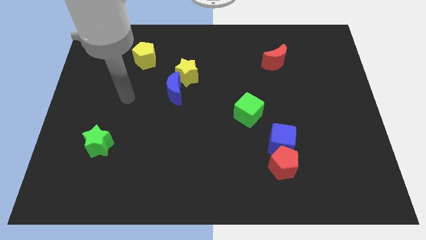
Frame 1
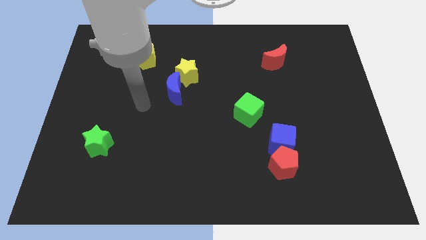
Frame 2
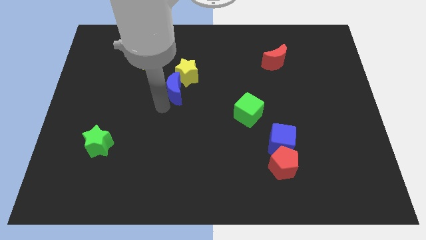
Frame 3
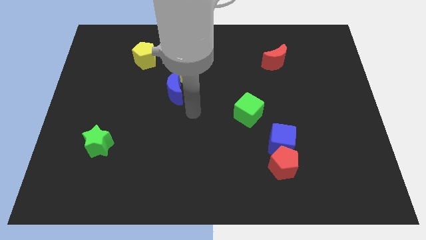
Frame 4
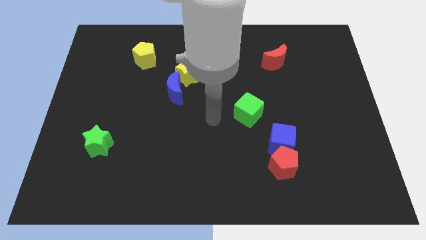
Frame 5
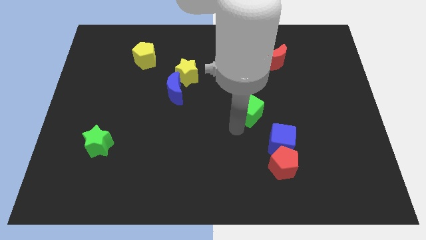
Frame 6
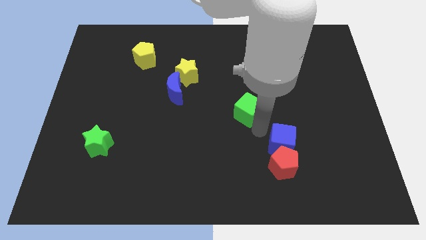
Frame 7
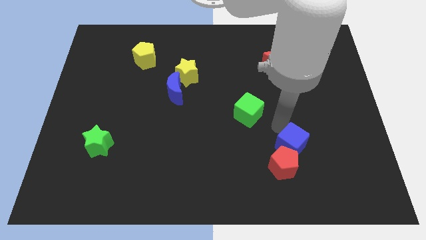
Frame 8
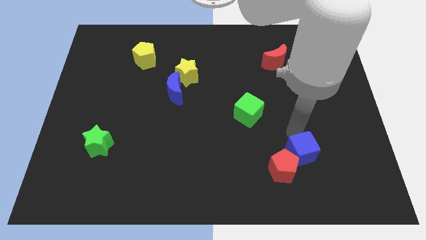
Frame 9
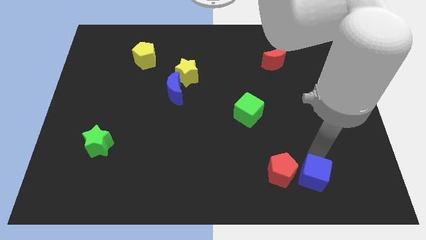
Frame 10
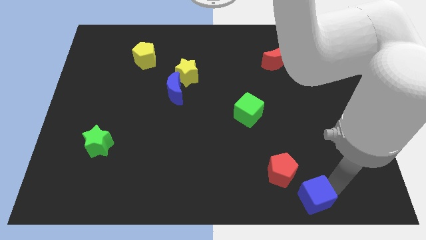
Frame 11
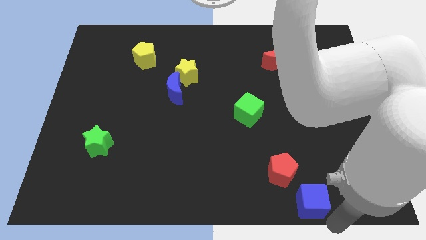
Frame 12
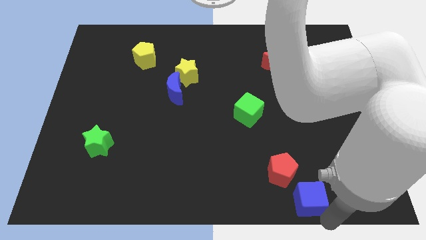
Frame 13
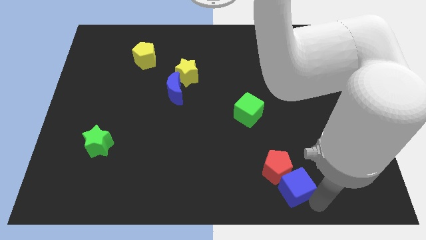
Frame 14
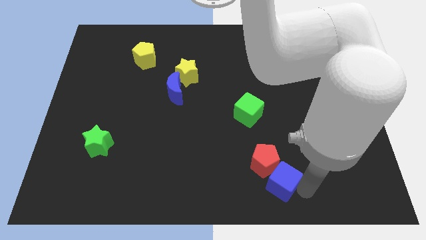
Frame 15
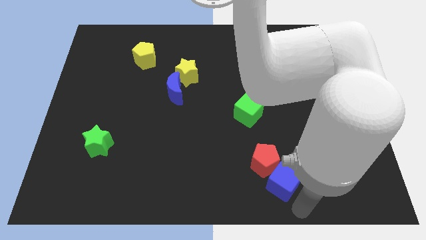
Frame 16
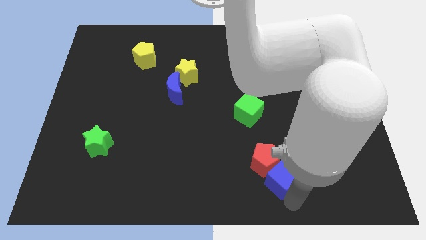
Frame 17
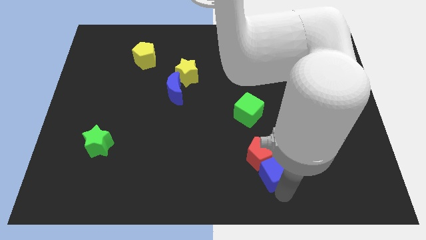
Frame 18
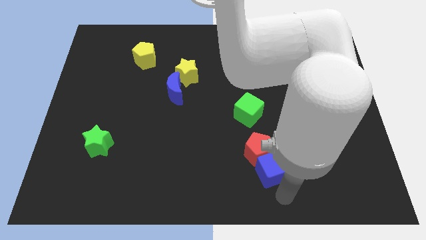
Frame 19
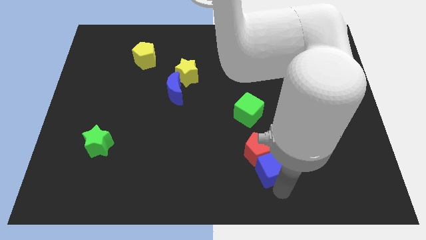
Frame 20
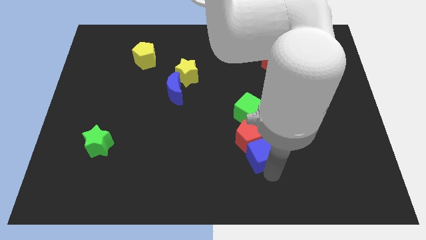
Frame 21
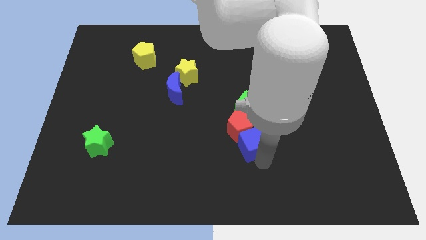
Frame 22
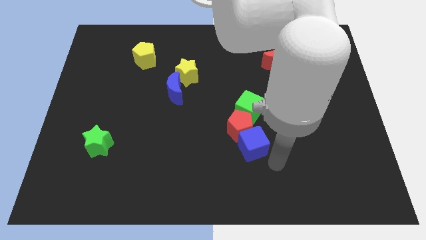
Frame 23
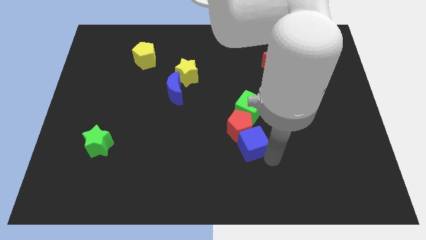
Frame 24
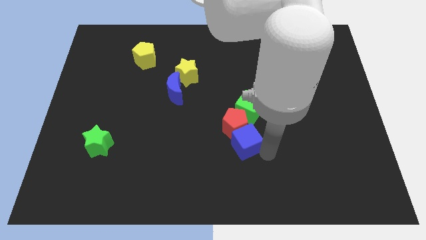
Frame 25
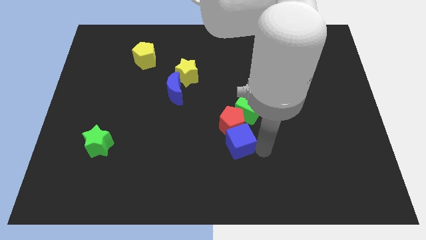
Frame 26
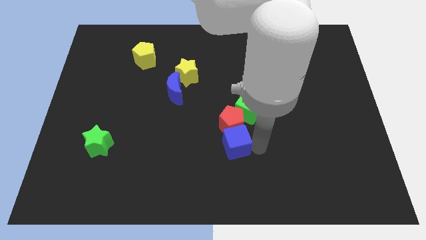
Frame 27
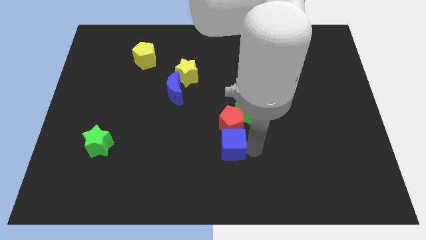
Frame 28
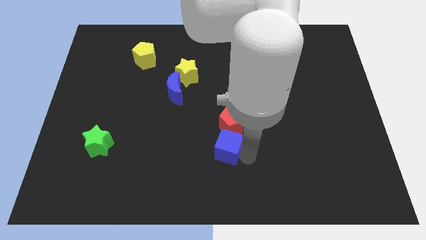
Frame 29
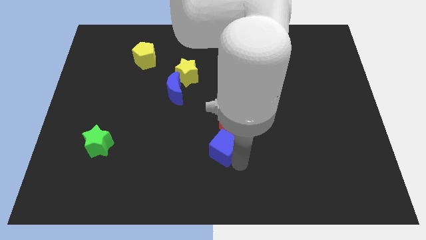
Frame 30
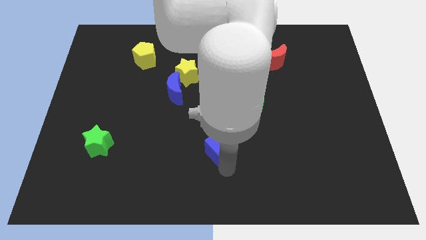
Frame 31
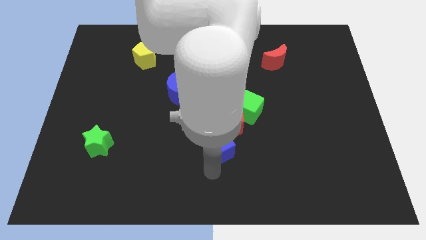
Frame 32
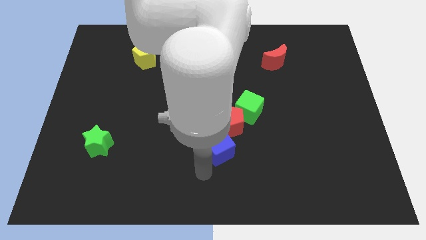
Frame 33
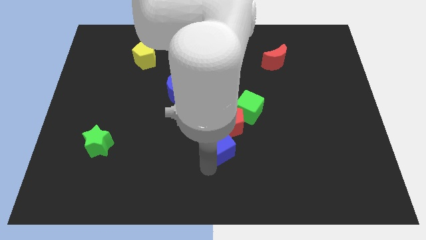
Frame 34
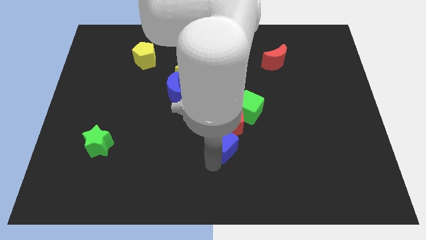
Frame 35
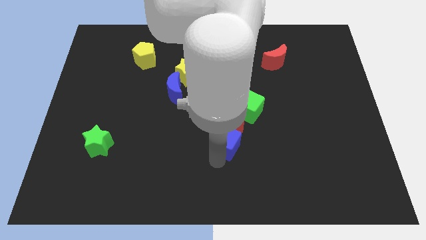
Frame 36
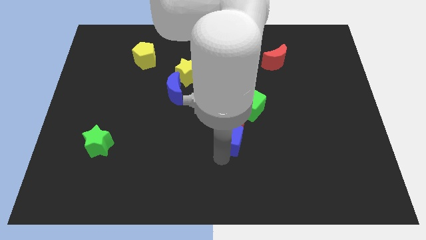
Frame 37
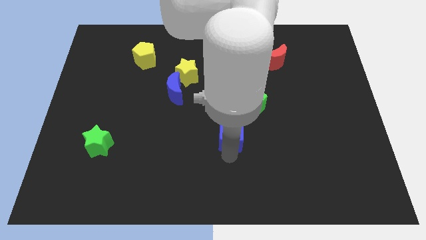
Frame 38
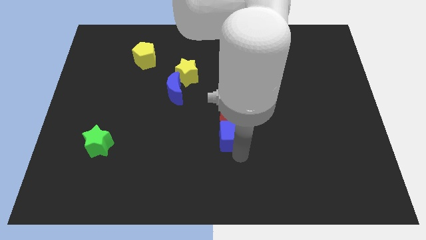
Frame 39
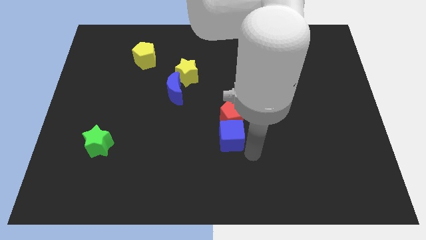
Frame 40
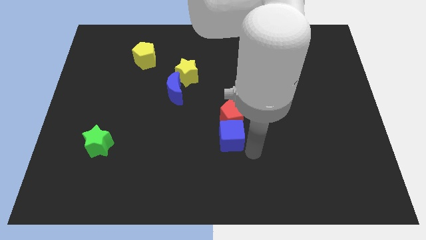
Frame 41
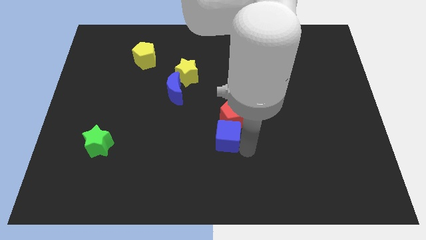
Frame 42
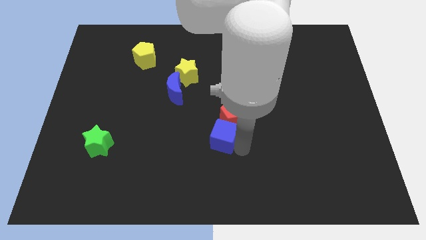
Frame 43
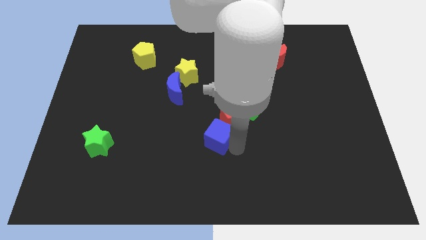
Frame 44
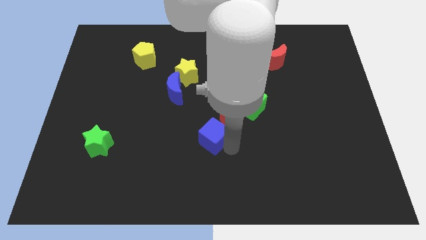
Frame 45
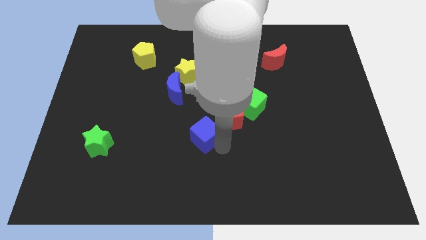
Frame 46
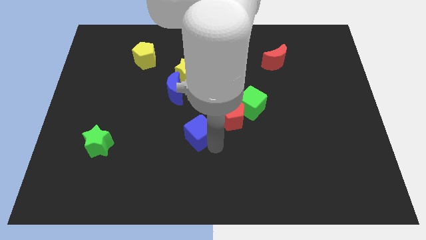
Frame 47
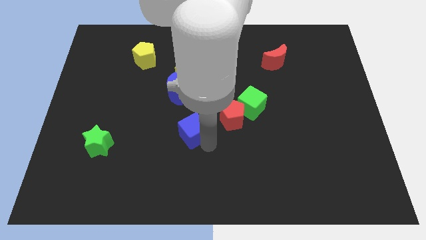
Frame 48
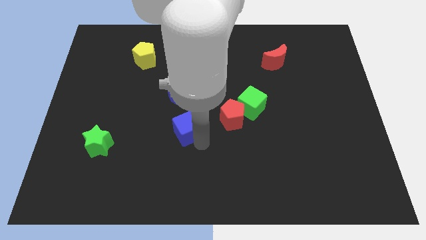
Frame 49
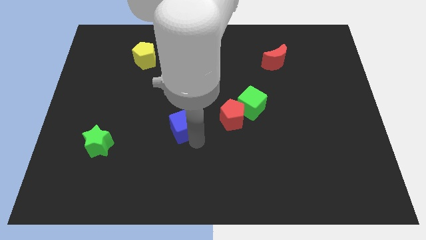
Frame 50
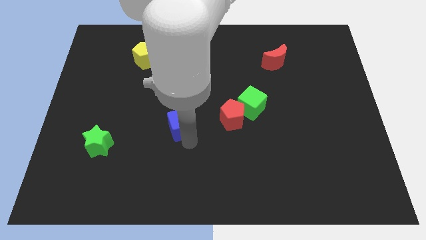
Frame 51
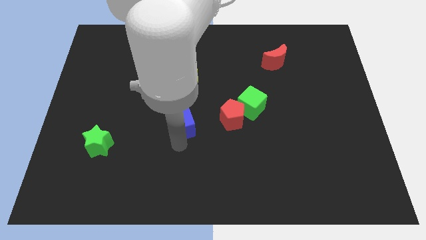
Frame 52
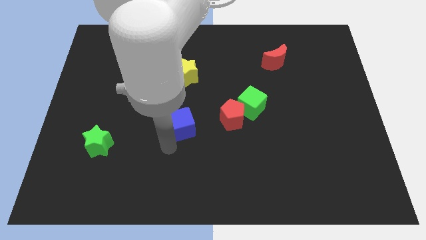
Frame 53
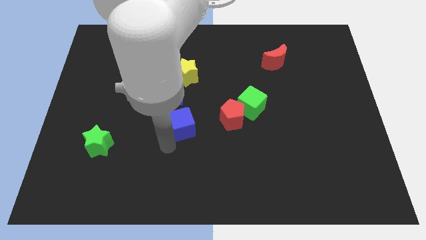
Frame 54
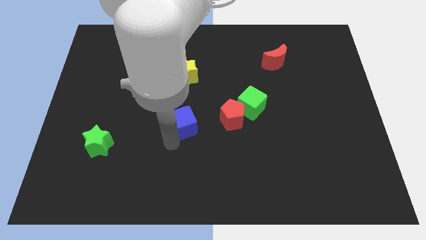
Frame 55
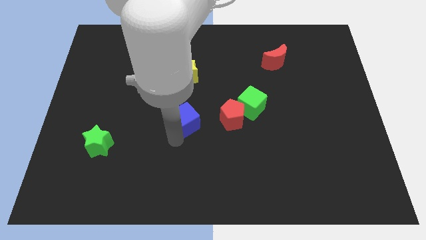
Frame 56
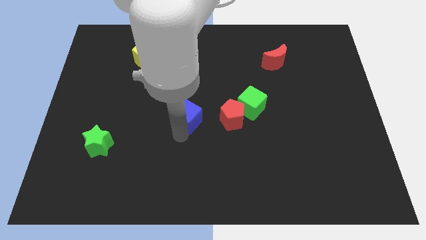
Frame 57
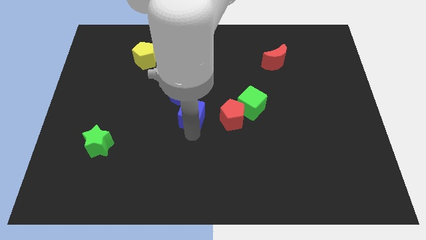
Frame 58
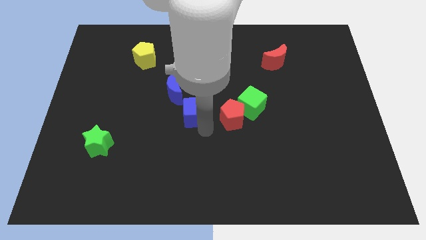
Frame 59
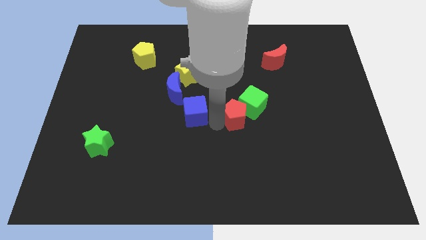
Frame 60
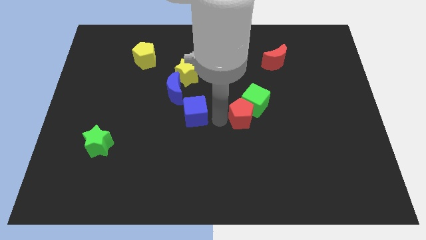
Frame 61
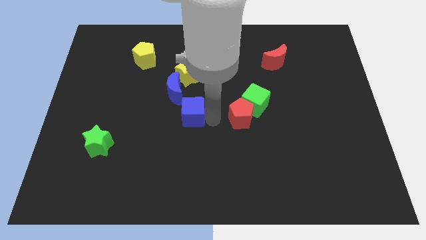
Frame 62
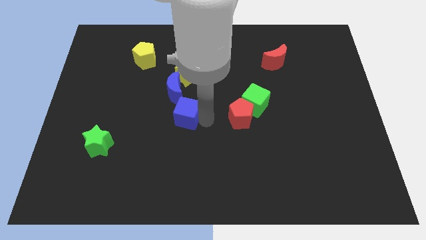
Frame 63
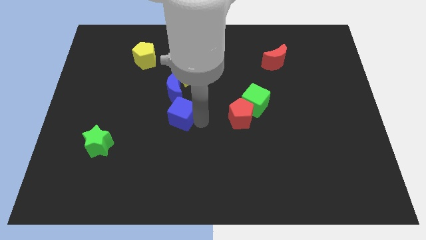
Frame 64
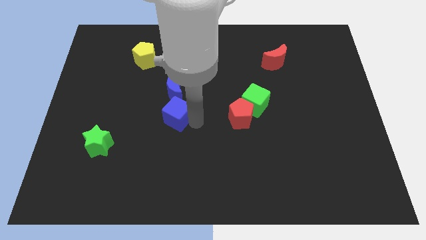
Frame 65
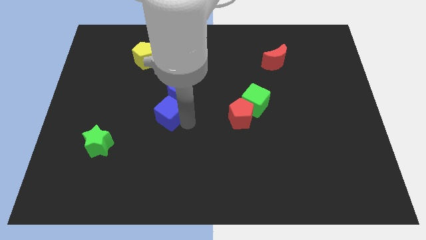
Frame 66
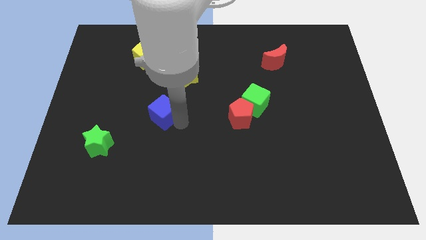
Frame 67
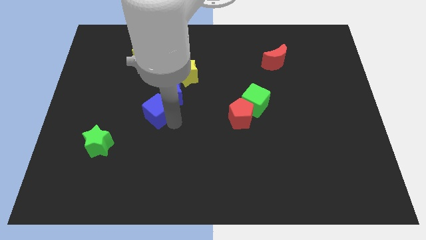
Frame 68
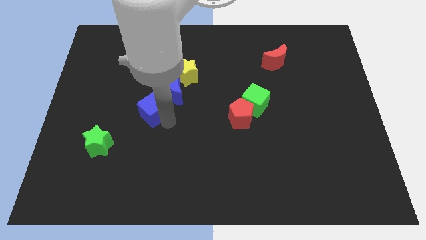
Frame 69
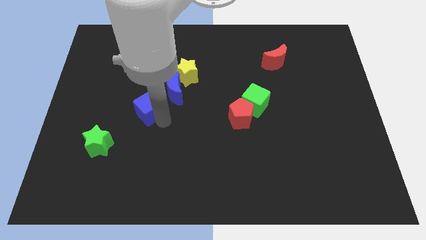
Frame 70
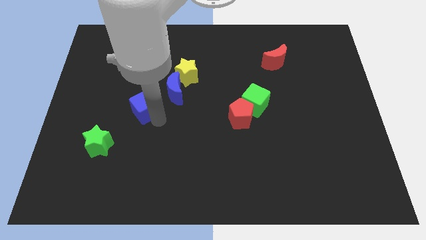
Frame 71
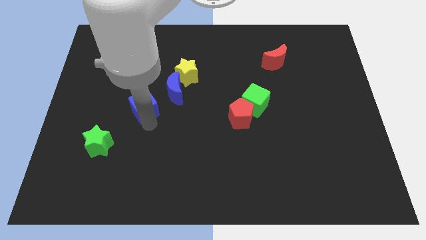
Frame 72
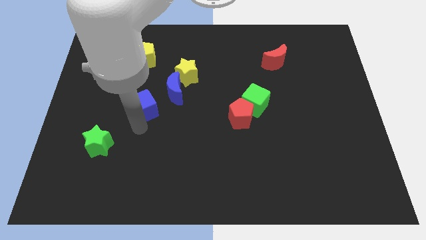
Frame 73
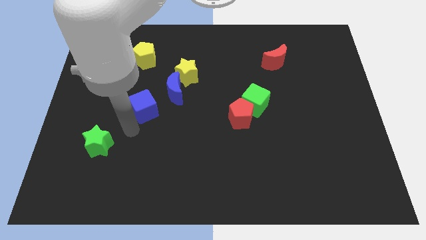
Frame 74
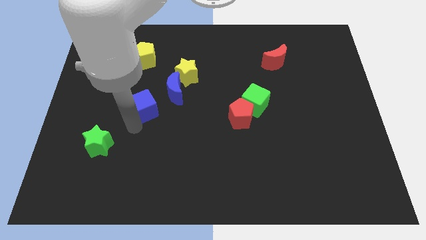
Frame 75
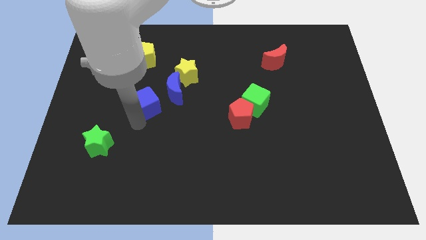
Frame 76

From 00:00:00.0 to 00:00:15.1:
move the blue cube to the bottom side of the yellow pentagon
